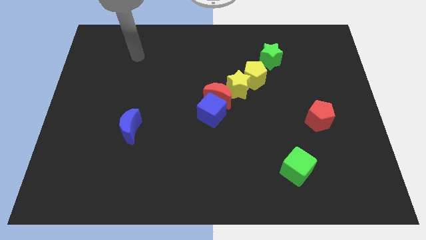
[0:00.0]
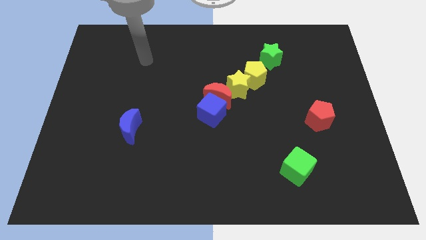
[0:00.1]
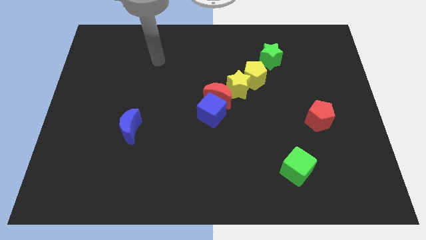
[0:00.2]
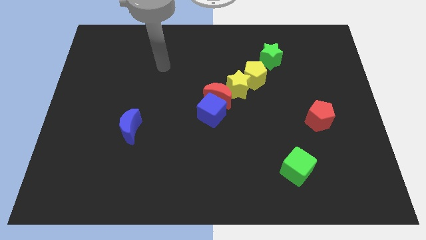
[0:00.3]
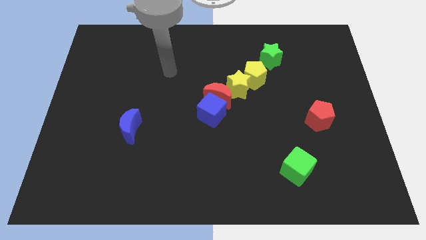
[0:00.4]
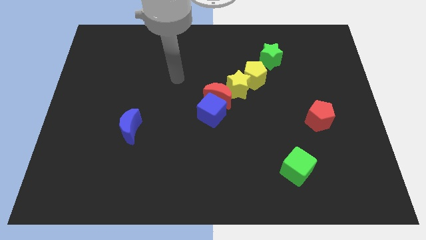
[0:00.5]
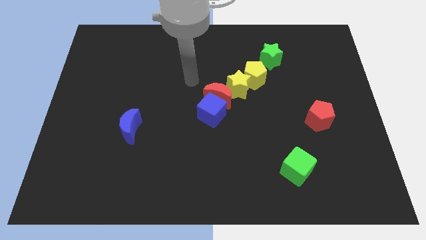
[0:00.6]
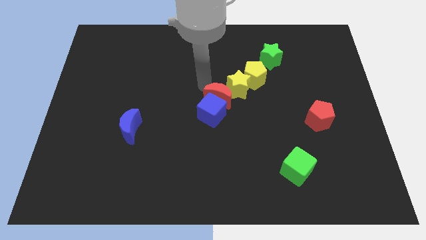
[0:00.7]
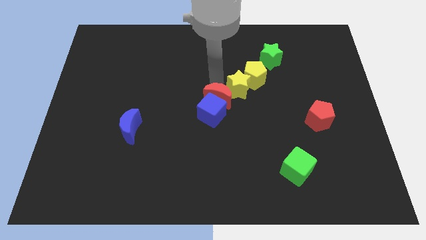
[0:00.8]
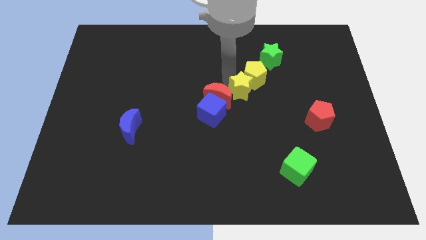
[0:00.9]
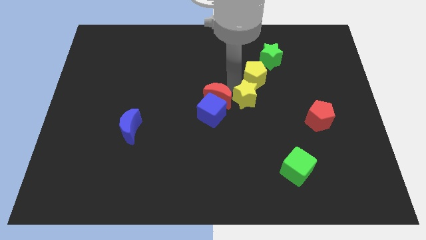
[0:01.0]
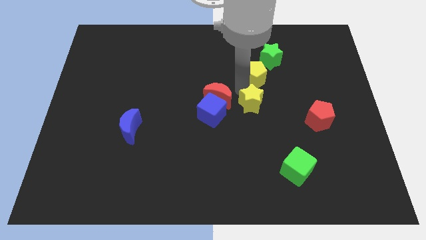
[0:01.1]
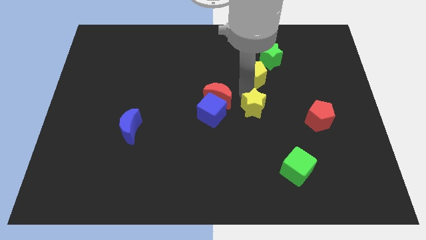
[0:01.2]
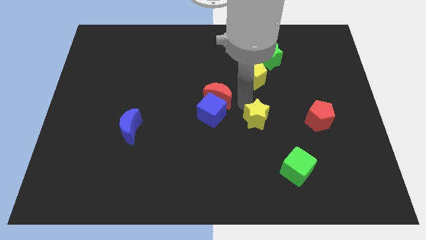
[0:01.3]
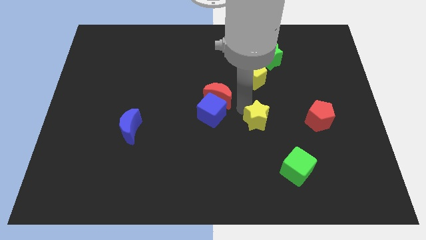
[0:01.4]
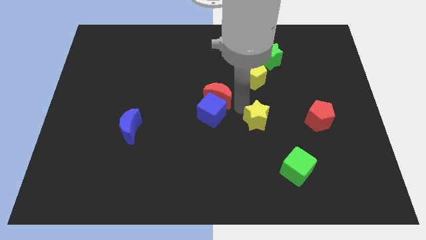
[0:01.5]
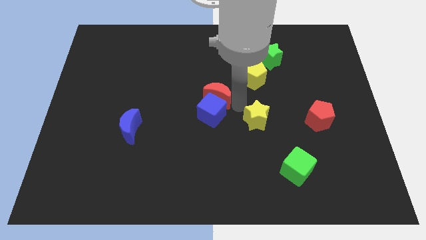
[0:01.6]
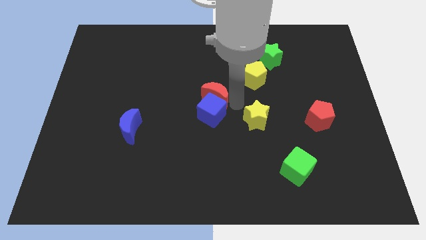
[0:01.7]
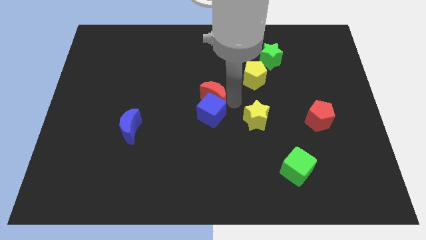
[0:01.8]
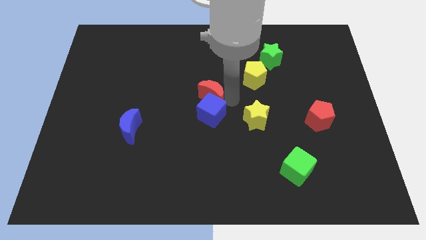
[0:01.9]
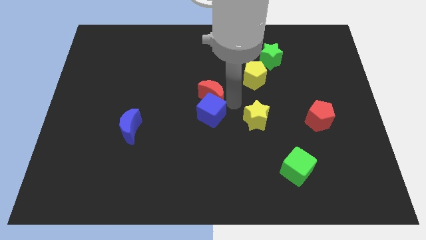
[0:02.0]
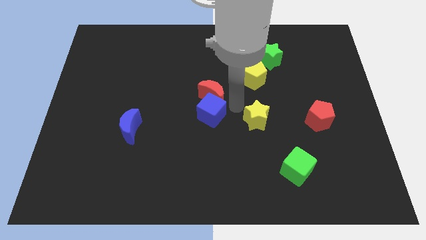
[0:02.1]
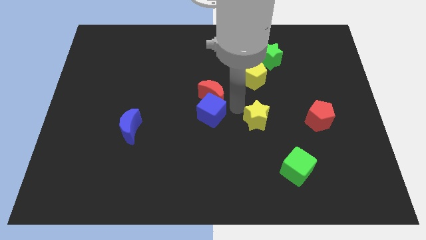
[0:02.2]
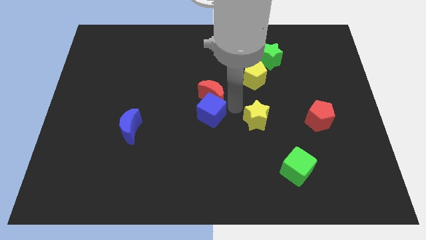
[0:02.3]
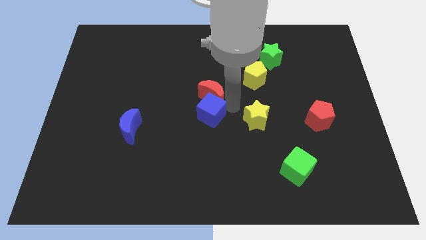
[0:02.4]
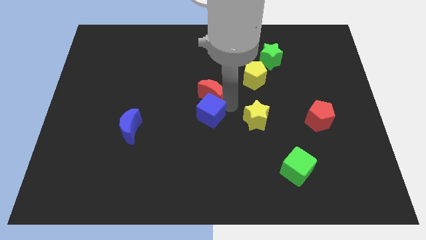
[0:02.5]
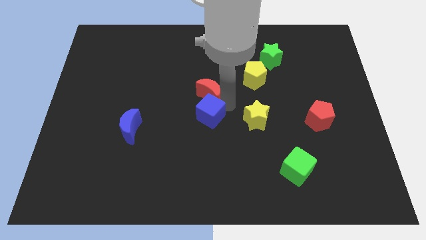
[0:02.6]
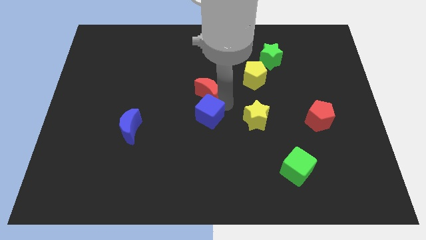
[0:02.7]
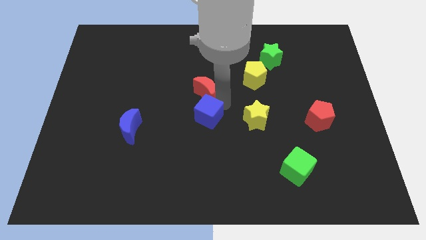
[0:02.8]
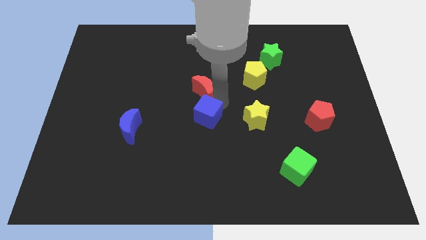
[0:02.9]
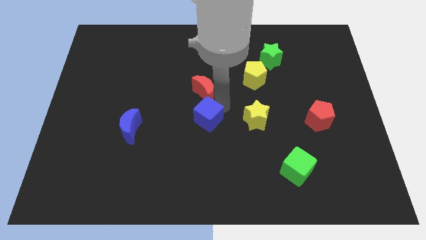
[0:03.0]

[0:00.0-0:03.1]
move the red moon away from the blue cube and yellow star

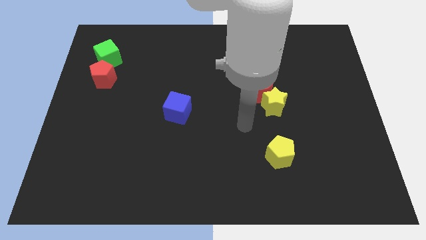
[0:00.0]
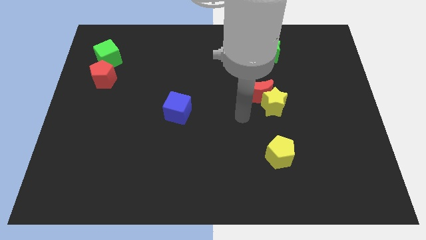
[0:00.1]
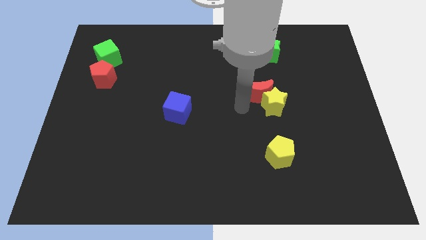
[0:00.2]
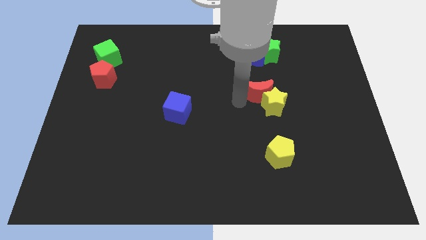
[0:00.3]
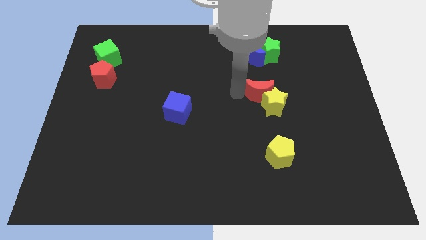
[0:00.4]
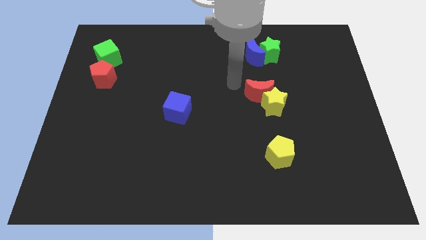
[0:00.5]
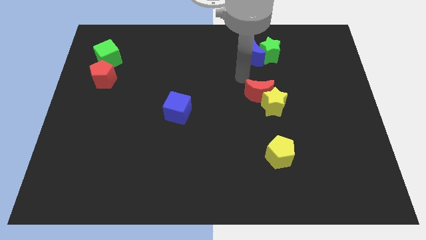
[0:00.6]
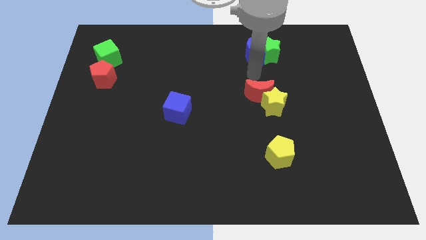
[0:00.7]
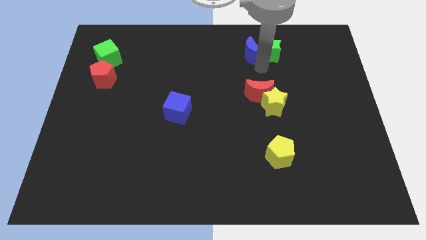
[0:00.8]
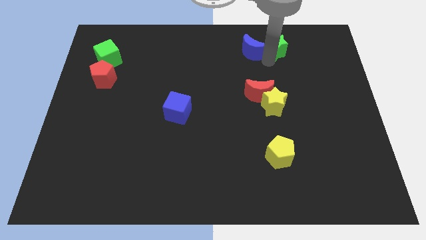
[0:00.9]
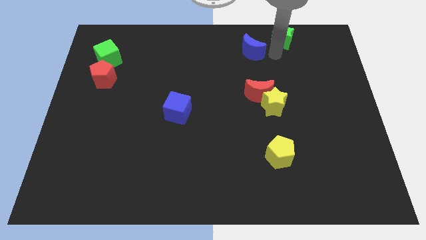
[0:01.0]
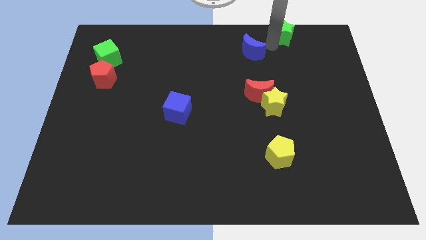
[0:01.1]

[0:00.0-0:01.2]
separate the blue moon from the green star

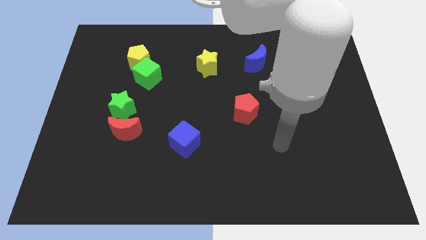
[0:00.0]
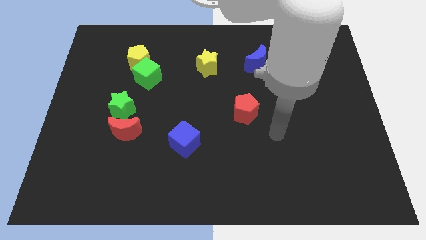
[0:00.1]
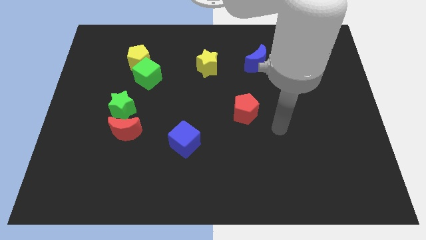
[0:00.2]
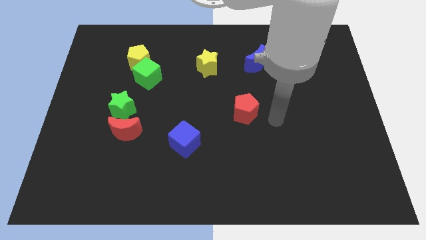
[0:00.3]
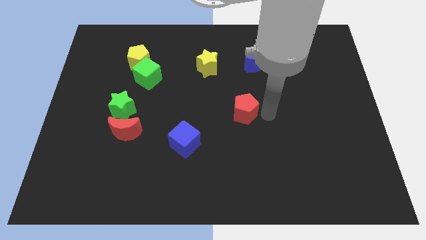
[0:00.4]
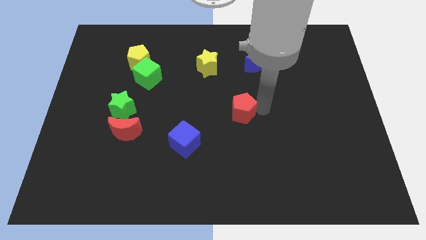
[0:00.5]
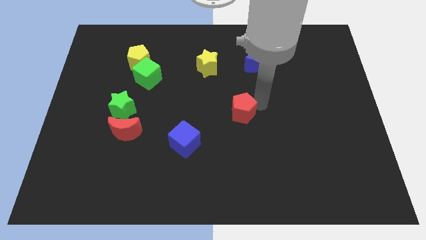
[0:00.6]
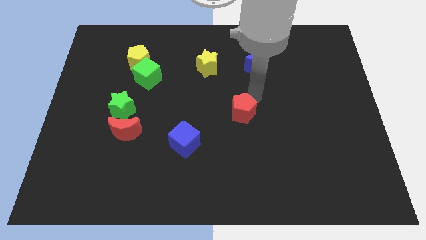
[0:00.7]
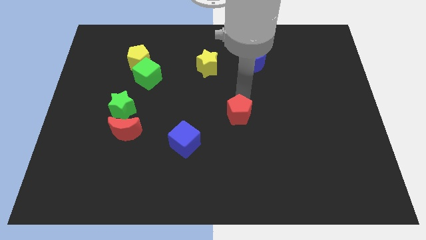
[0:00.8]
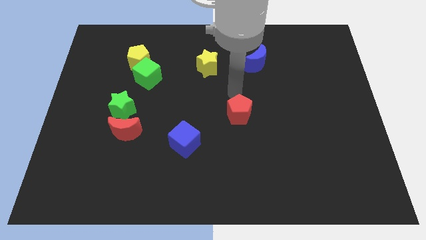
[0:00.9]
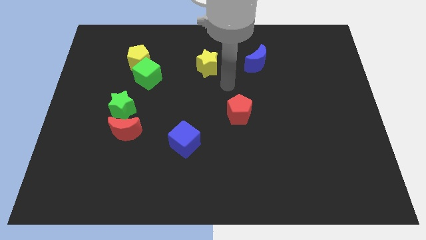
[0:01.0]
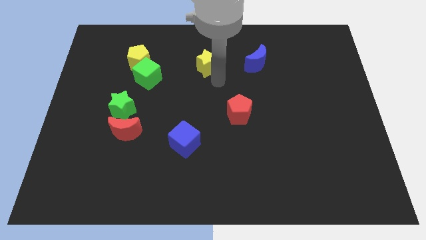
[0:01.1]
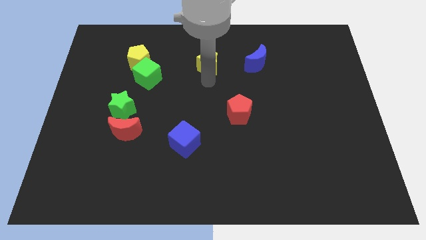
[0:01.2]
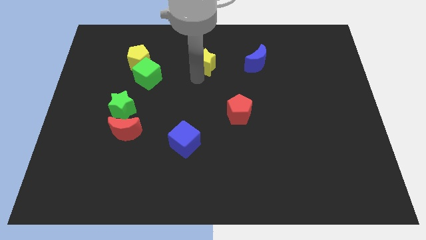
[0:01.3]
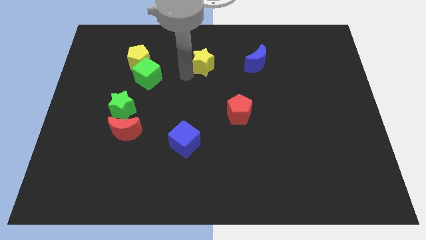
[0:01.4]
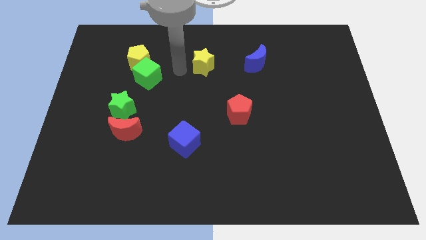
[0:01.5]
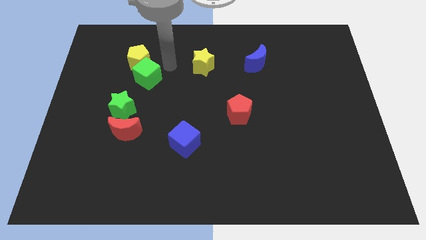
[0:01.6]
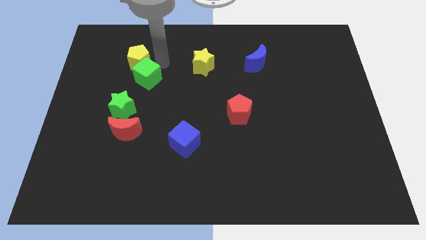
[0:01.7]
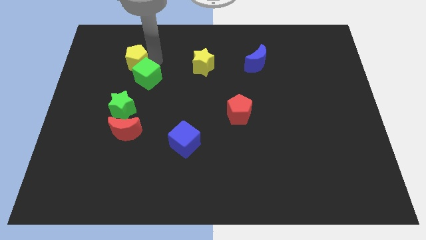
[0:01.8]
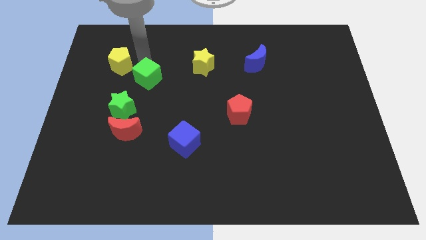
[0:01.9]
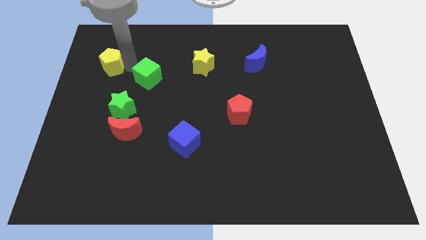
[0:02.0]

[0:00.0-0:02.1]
move the green cube away from the yellow pentagon

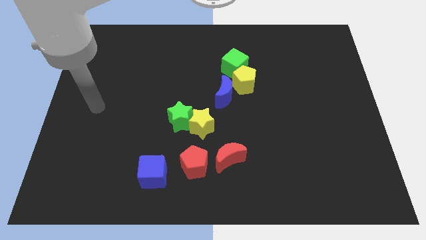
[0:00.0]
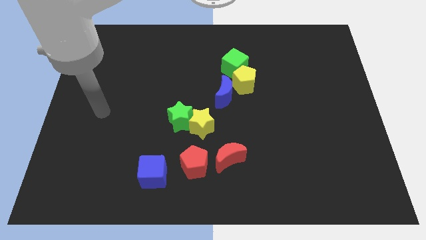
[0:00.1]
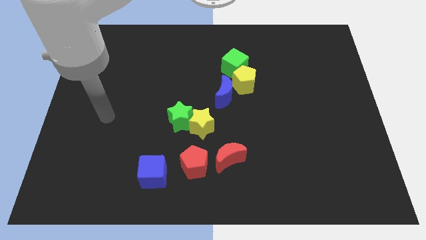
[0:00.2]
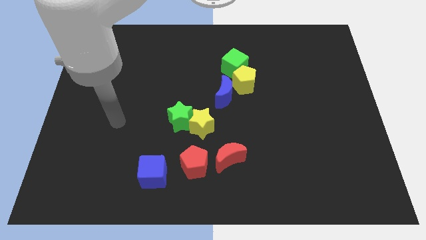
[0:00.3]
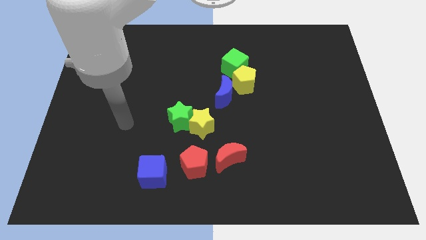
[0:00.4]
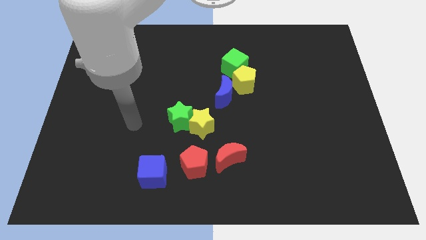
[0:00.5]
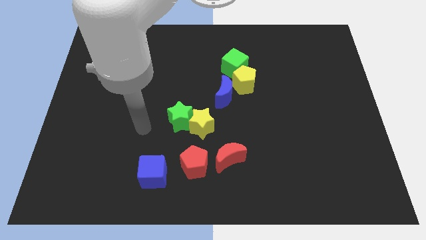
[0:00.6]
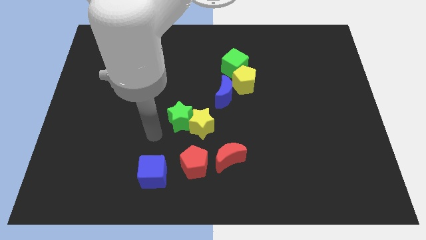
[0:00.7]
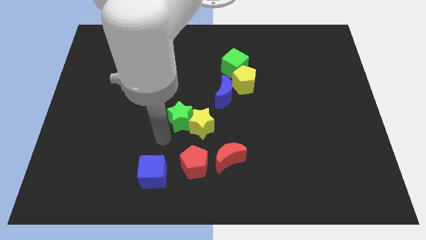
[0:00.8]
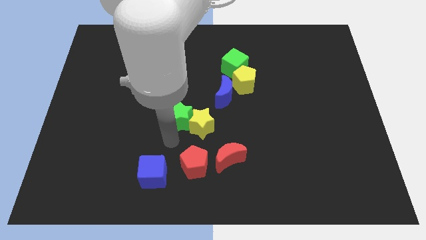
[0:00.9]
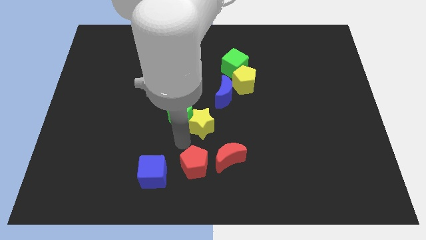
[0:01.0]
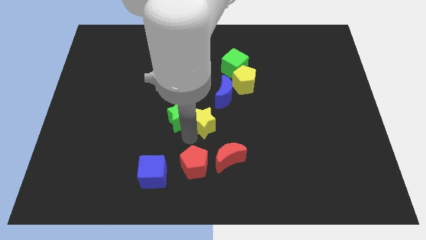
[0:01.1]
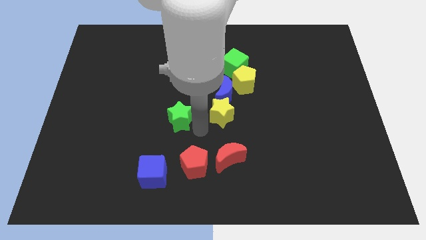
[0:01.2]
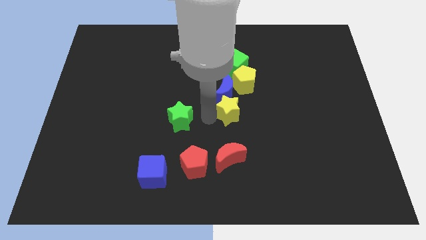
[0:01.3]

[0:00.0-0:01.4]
separate the green star from the yellow star

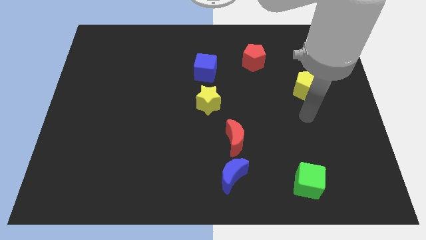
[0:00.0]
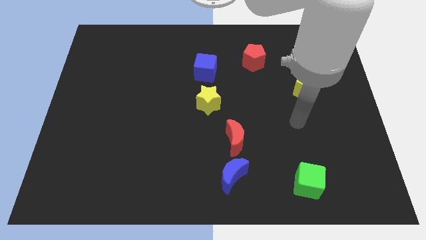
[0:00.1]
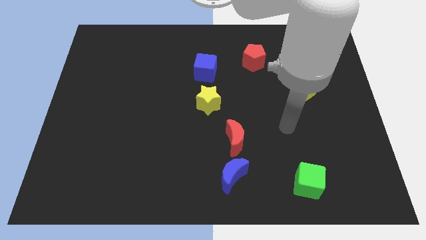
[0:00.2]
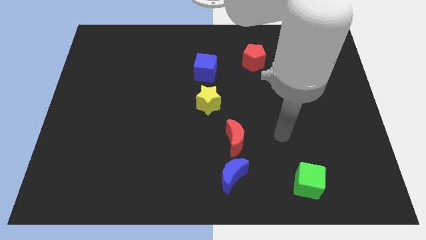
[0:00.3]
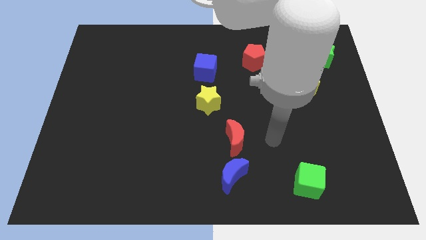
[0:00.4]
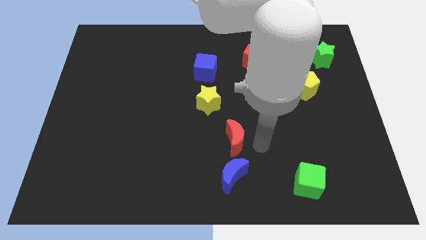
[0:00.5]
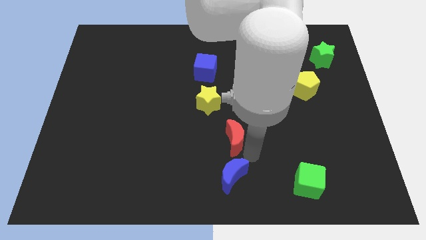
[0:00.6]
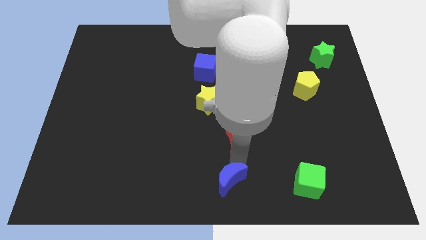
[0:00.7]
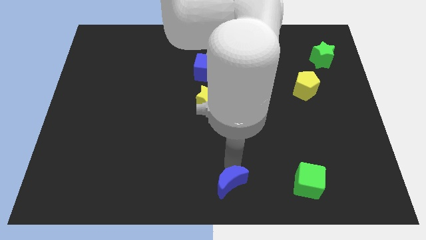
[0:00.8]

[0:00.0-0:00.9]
pull the red moon apart from the blue moon

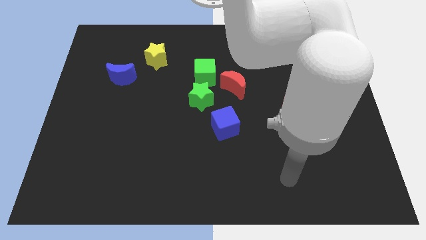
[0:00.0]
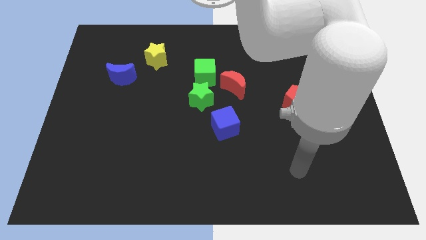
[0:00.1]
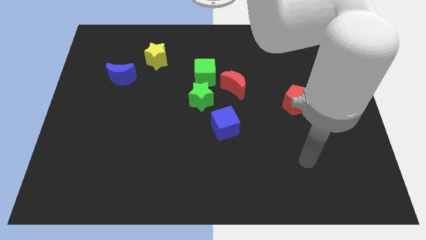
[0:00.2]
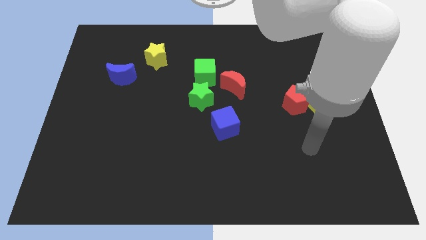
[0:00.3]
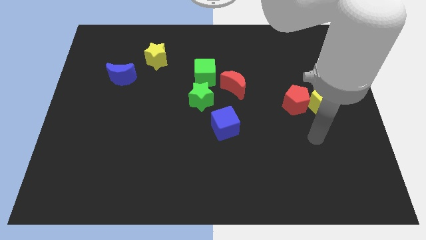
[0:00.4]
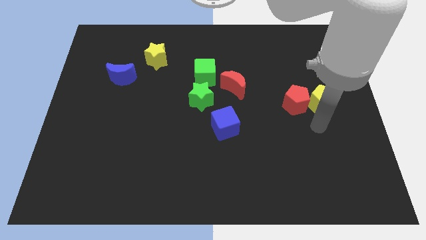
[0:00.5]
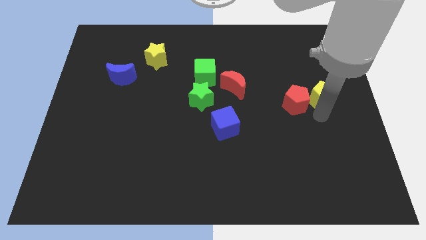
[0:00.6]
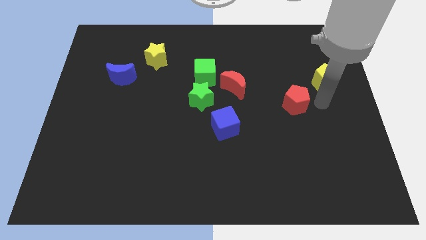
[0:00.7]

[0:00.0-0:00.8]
move the red pentagon away from the yellow pentagon
